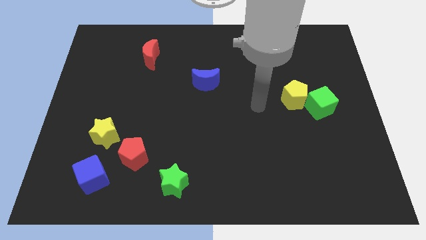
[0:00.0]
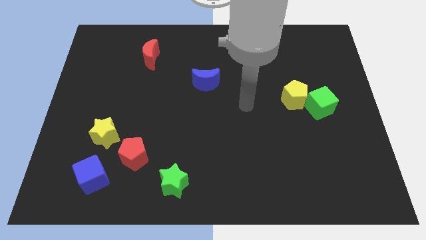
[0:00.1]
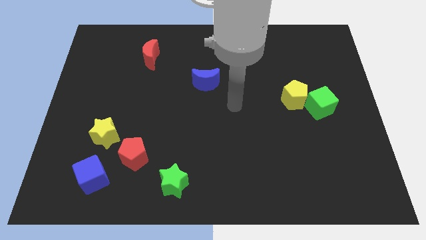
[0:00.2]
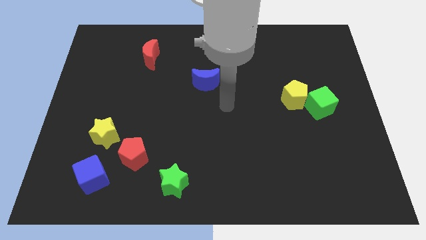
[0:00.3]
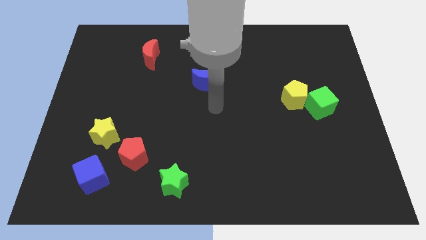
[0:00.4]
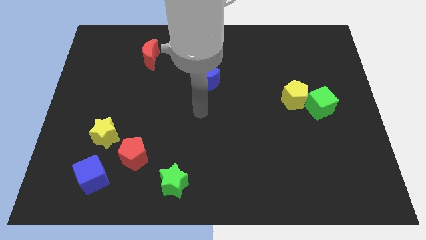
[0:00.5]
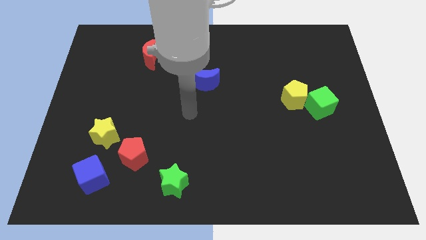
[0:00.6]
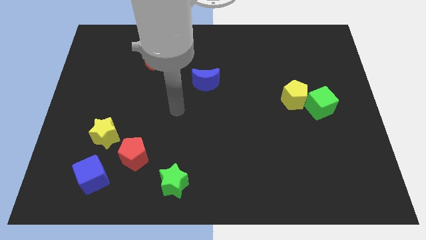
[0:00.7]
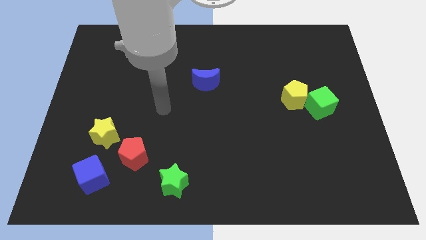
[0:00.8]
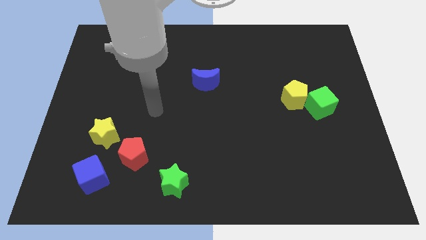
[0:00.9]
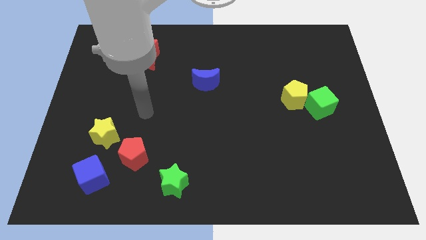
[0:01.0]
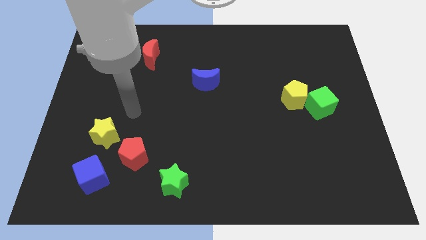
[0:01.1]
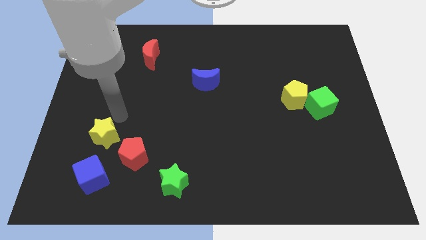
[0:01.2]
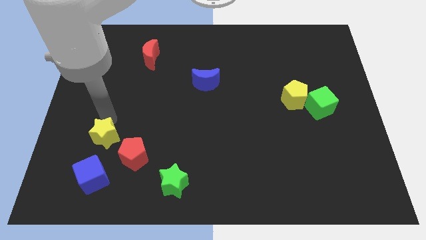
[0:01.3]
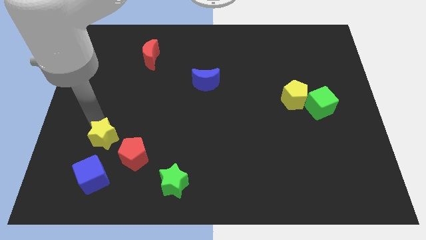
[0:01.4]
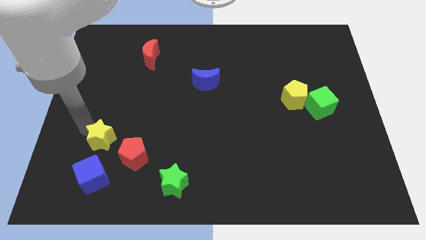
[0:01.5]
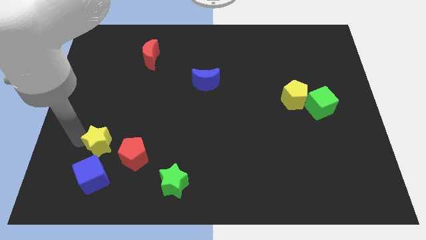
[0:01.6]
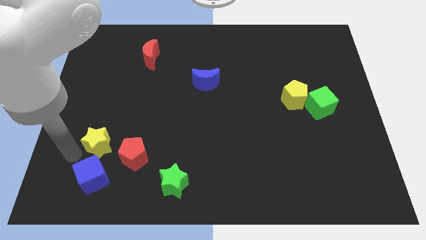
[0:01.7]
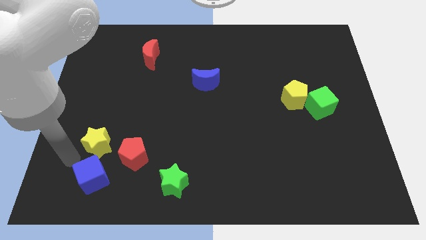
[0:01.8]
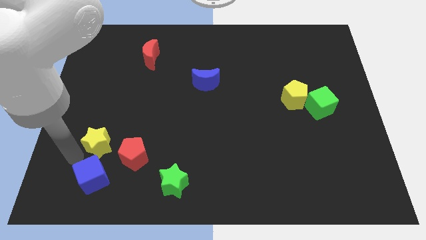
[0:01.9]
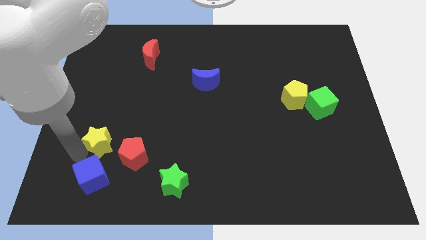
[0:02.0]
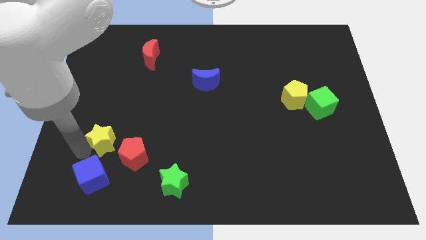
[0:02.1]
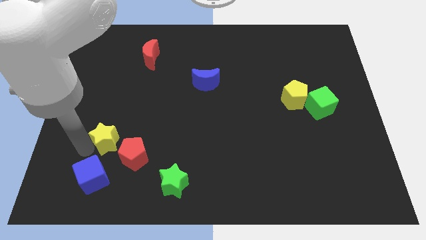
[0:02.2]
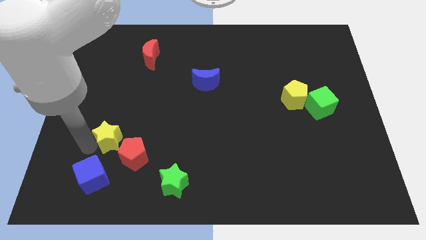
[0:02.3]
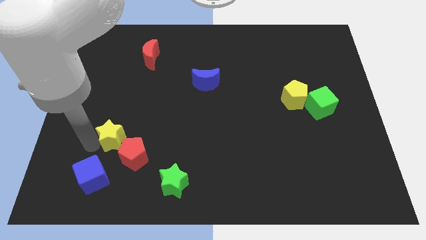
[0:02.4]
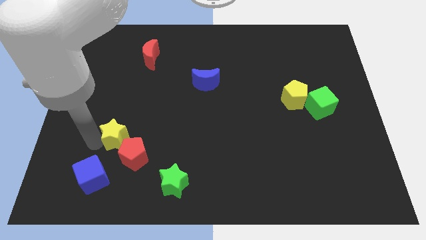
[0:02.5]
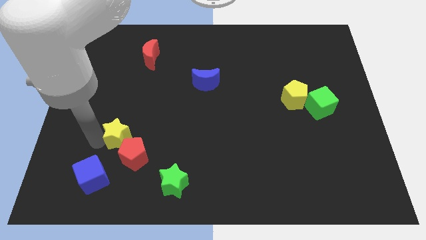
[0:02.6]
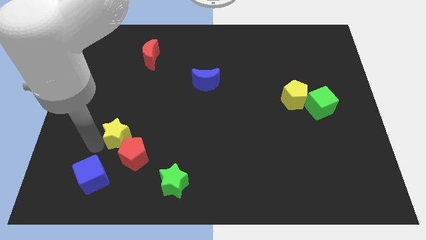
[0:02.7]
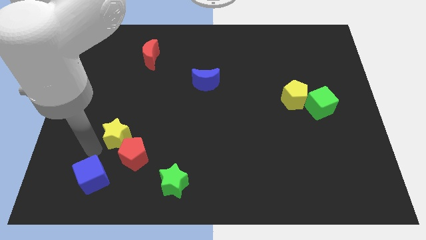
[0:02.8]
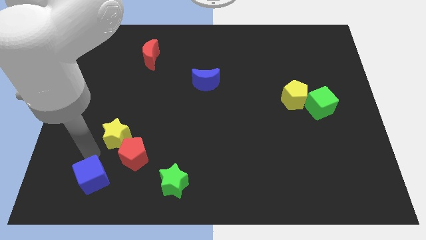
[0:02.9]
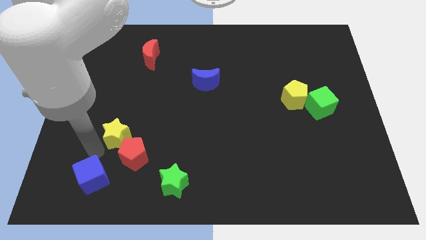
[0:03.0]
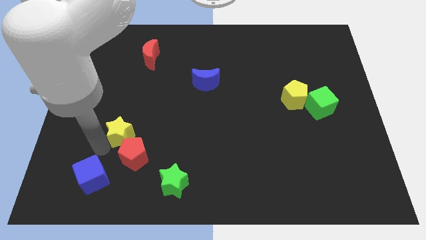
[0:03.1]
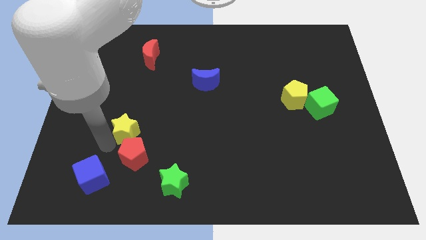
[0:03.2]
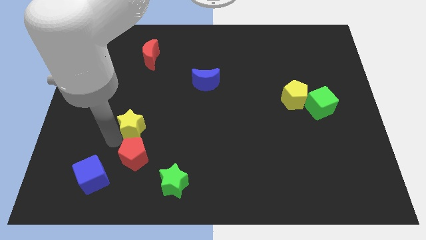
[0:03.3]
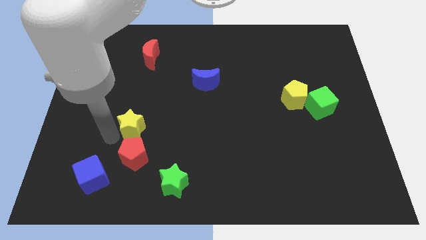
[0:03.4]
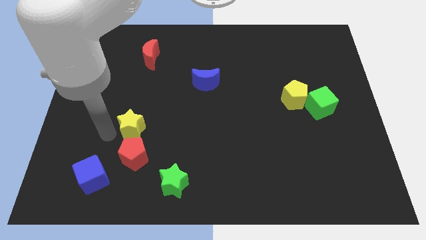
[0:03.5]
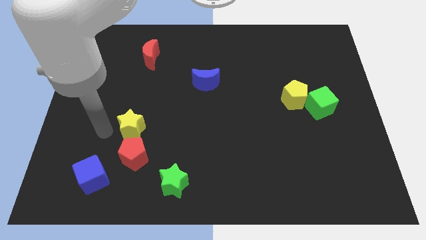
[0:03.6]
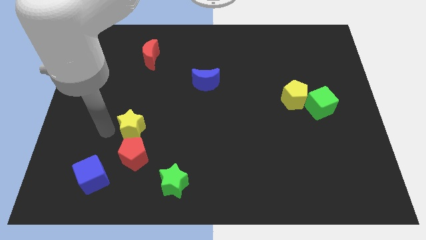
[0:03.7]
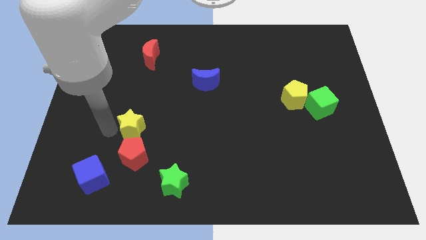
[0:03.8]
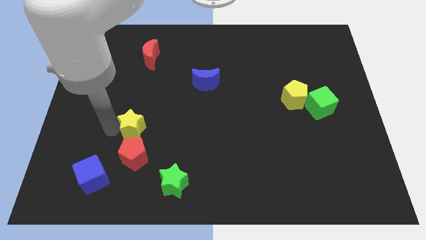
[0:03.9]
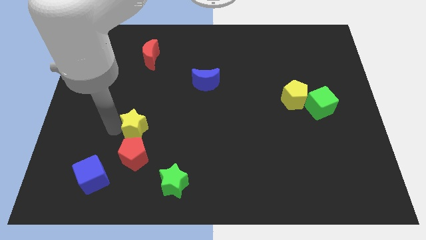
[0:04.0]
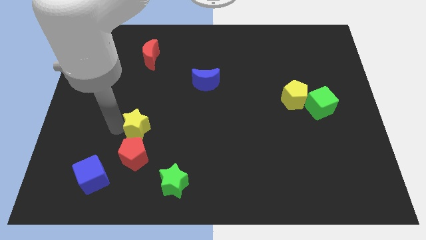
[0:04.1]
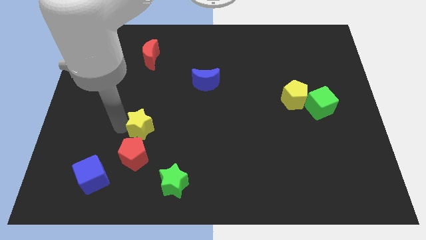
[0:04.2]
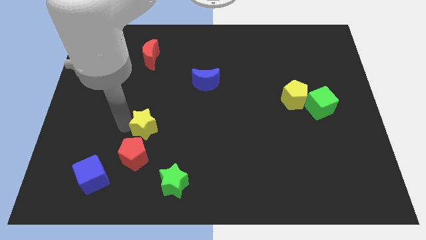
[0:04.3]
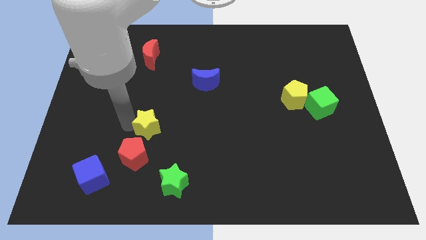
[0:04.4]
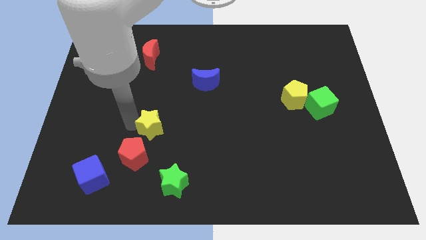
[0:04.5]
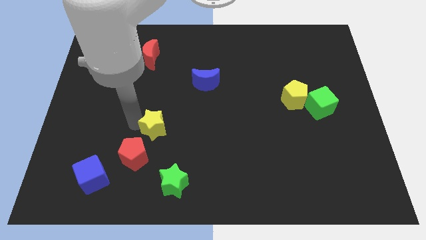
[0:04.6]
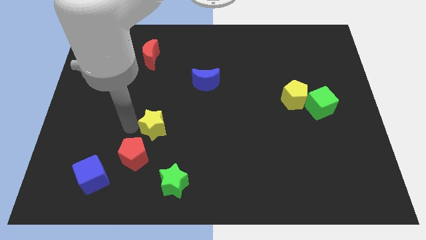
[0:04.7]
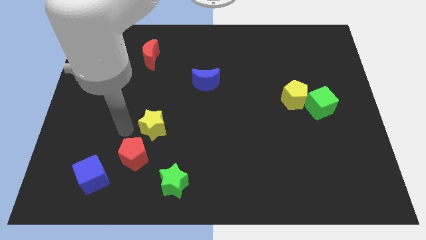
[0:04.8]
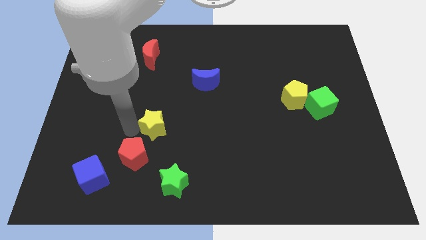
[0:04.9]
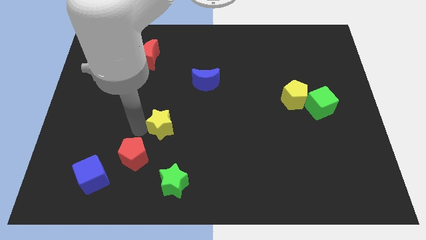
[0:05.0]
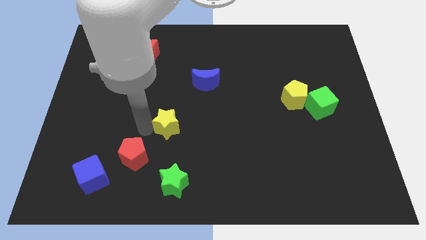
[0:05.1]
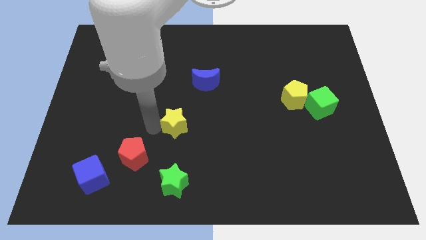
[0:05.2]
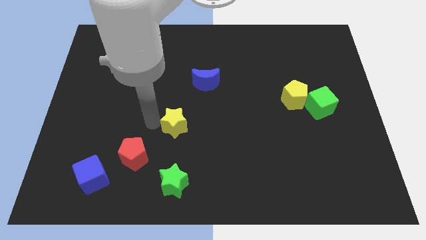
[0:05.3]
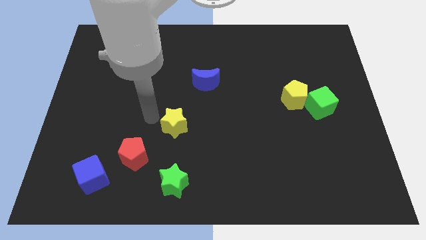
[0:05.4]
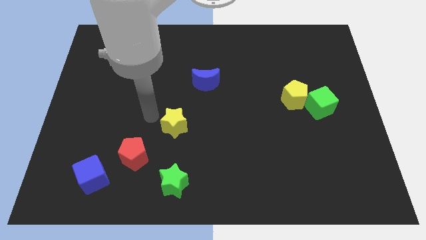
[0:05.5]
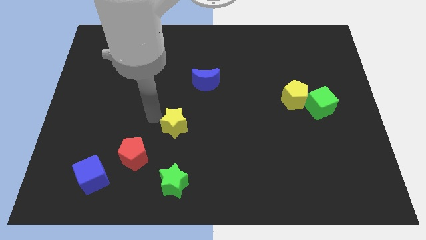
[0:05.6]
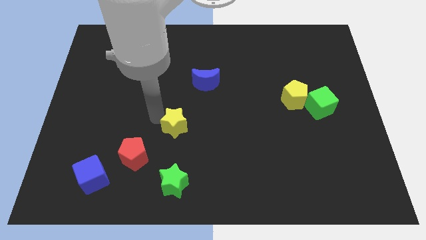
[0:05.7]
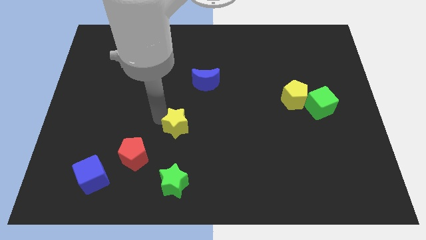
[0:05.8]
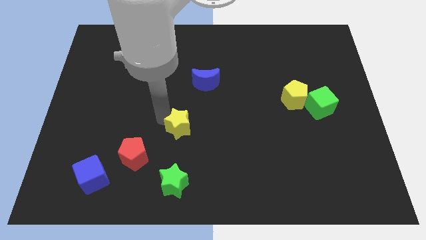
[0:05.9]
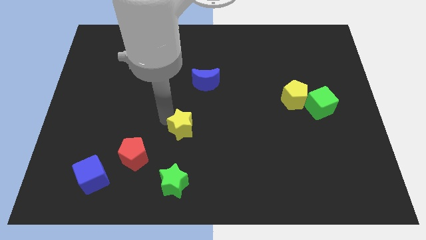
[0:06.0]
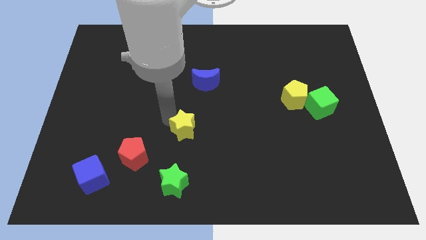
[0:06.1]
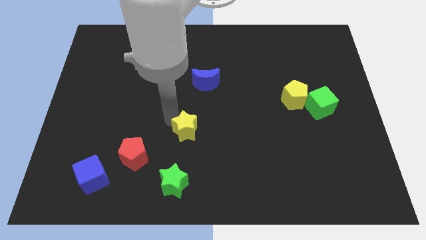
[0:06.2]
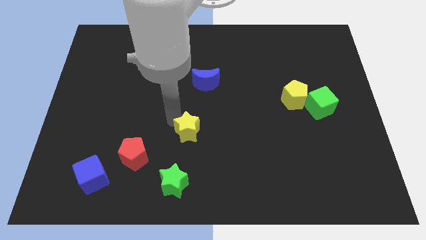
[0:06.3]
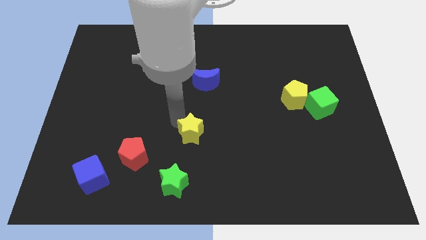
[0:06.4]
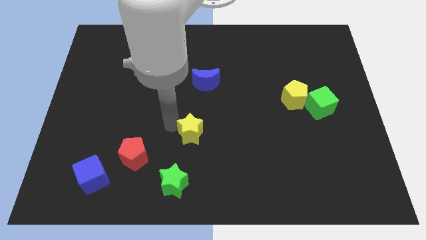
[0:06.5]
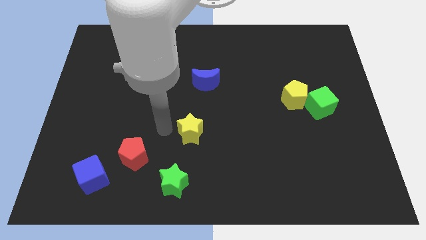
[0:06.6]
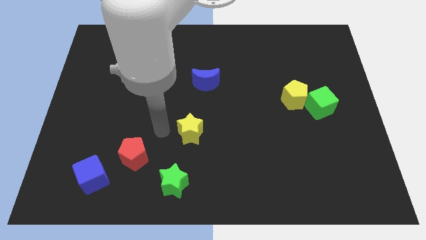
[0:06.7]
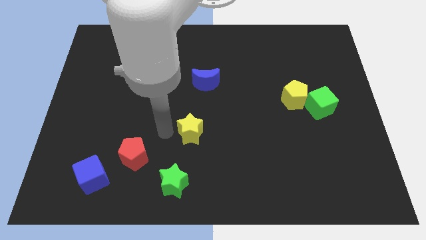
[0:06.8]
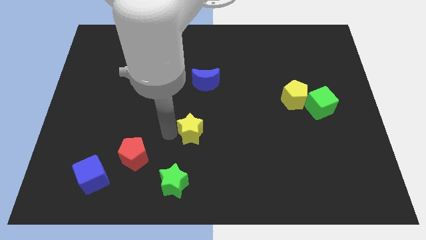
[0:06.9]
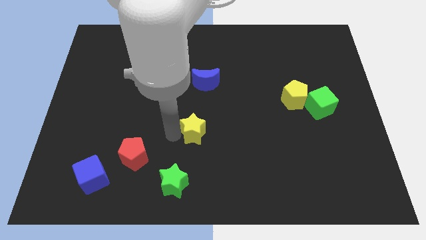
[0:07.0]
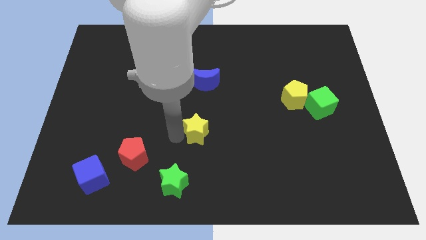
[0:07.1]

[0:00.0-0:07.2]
push the yellow star to the right

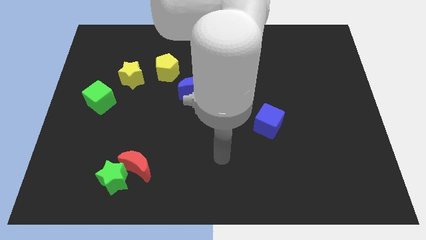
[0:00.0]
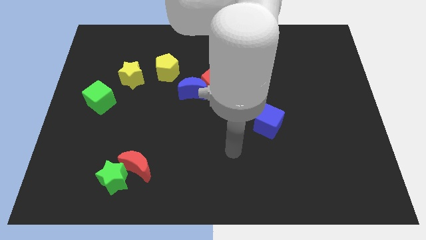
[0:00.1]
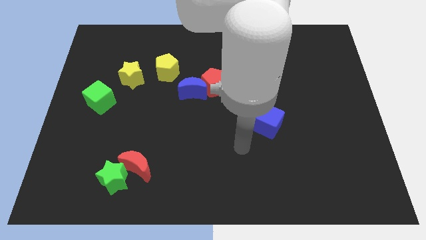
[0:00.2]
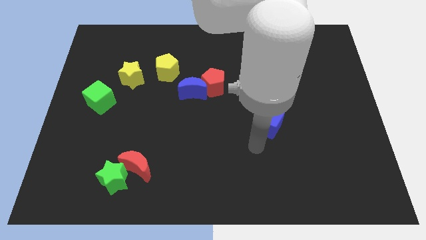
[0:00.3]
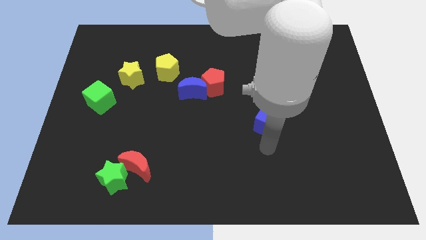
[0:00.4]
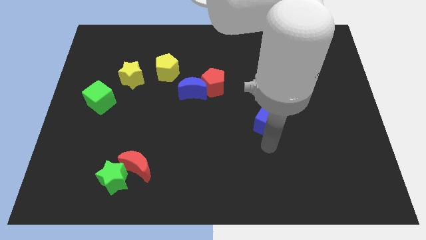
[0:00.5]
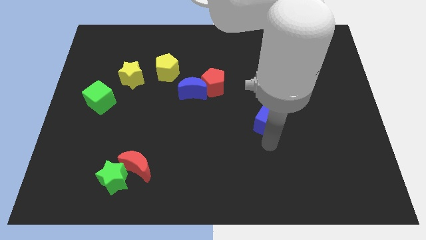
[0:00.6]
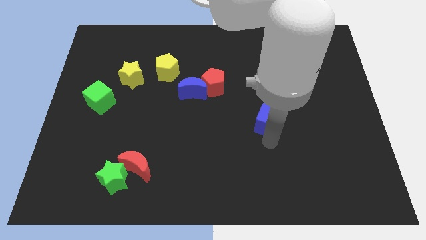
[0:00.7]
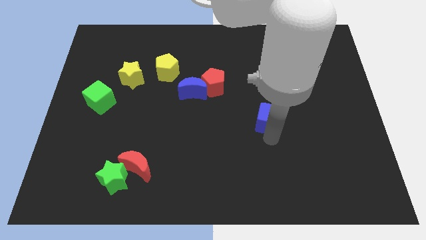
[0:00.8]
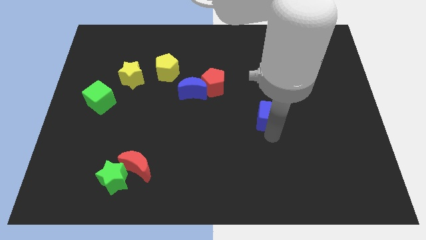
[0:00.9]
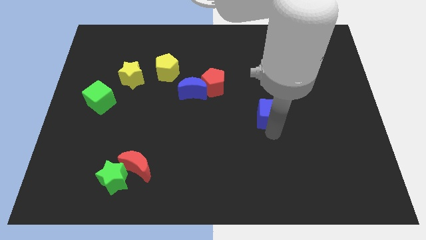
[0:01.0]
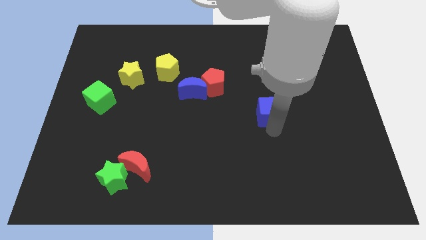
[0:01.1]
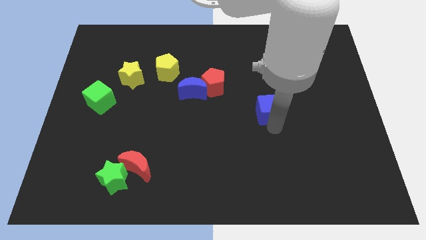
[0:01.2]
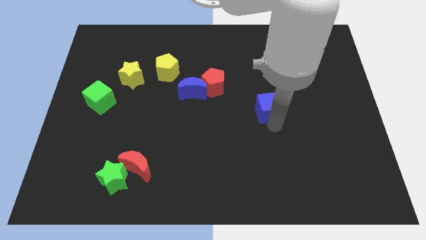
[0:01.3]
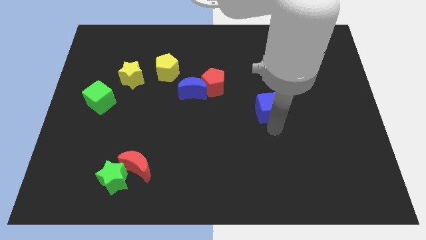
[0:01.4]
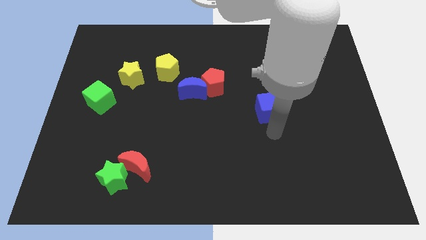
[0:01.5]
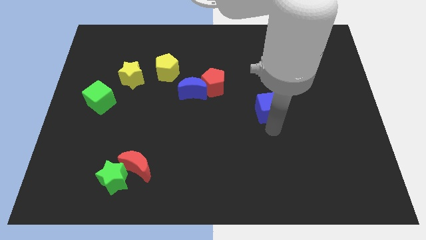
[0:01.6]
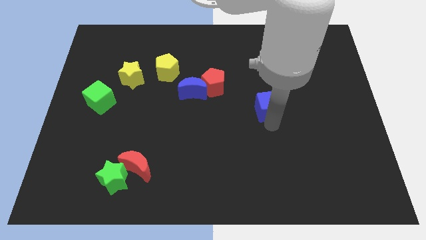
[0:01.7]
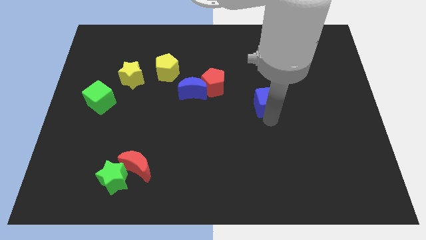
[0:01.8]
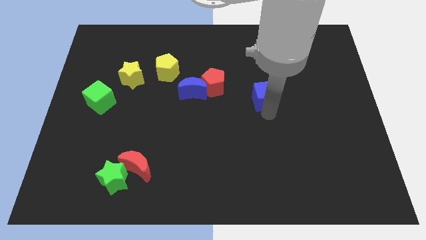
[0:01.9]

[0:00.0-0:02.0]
move the blue cube upwards a little bit
